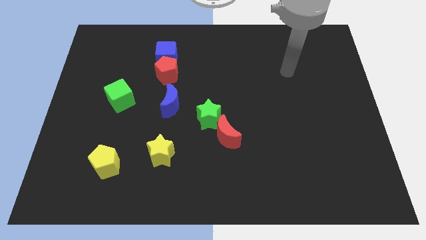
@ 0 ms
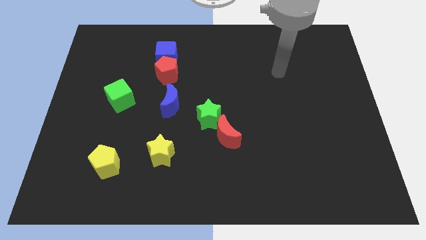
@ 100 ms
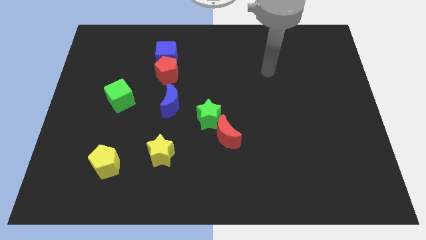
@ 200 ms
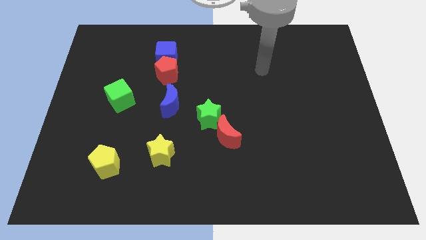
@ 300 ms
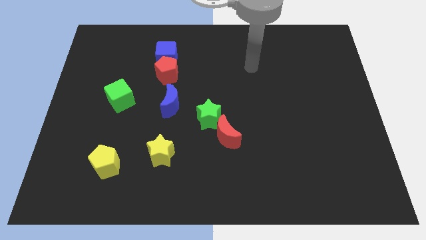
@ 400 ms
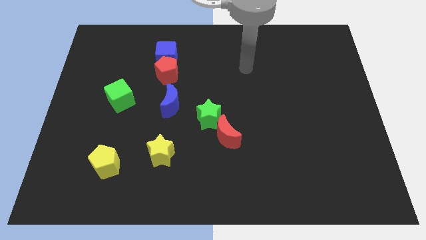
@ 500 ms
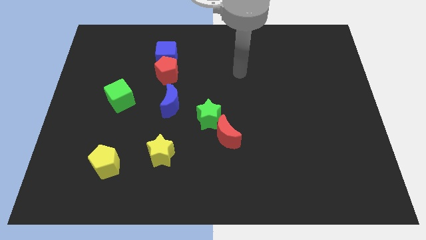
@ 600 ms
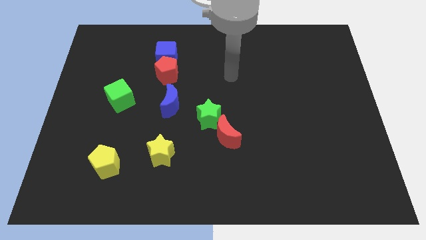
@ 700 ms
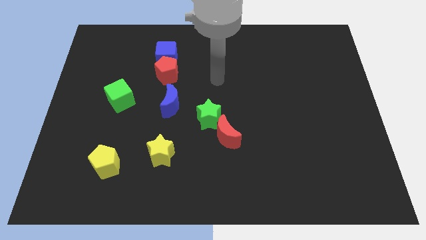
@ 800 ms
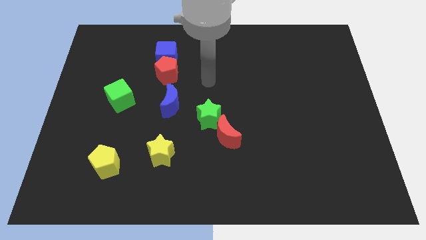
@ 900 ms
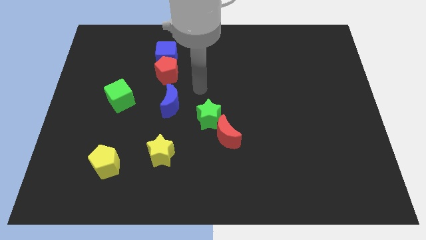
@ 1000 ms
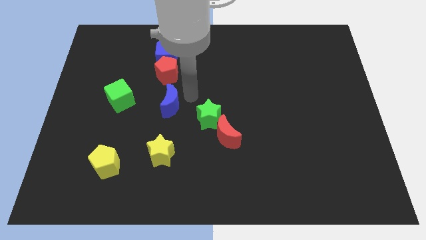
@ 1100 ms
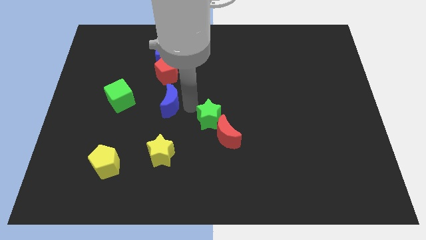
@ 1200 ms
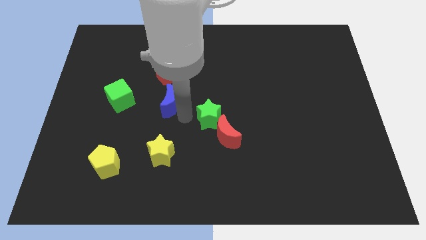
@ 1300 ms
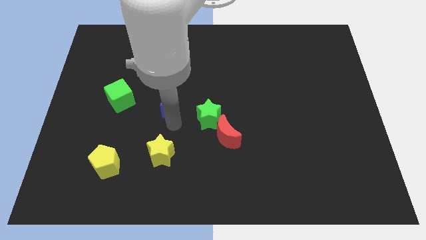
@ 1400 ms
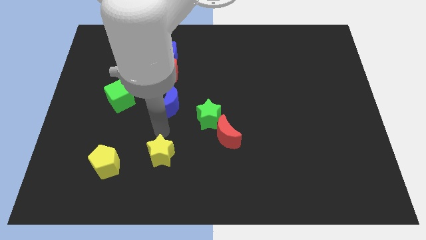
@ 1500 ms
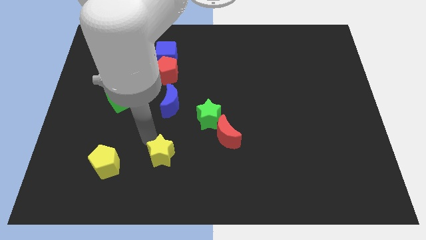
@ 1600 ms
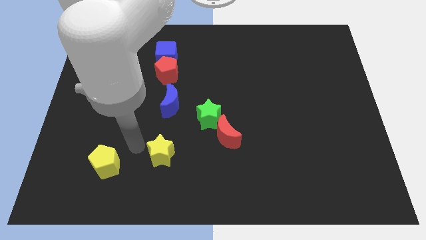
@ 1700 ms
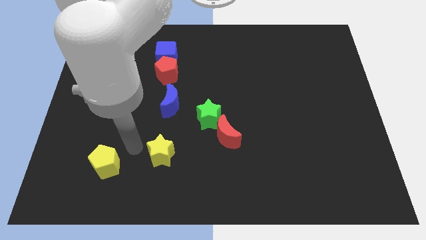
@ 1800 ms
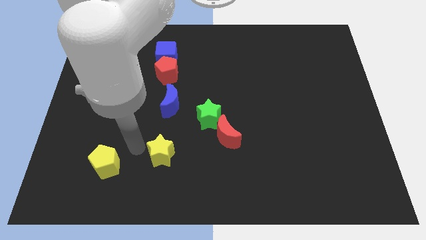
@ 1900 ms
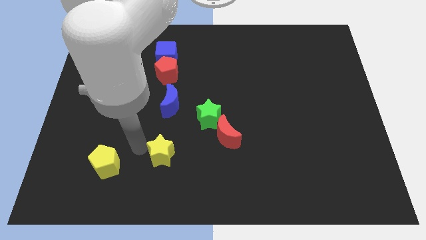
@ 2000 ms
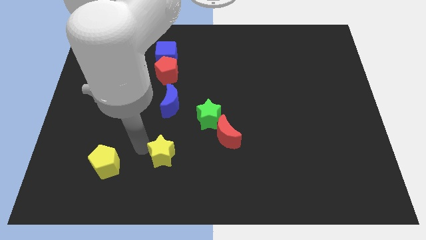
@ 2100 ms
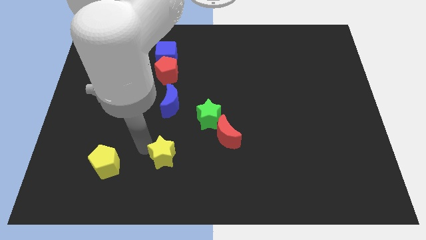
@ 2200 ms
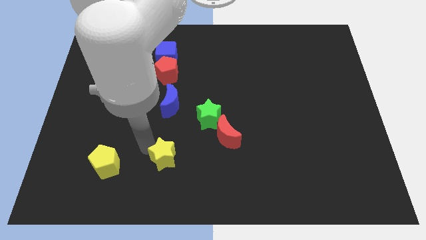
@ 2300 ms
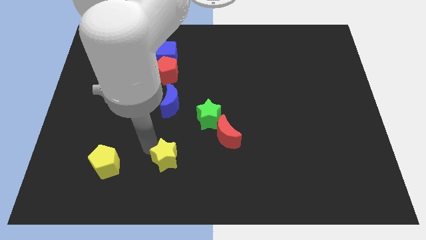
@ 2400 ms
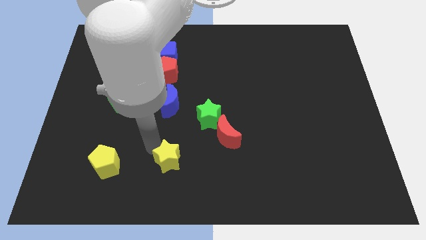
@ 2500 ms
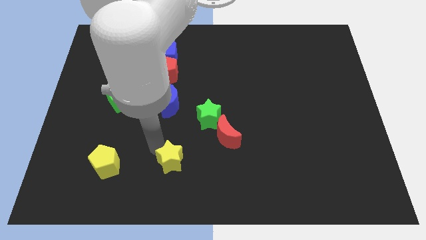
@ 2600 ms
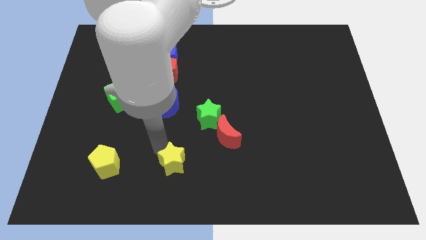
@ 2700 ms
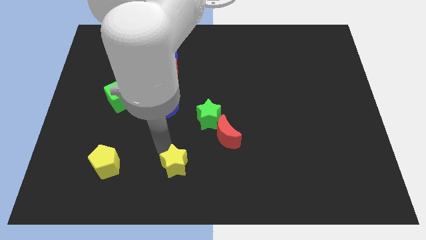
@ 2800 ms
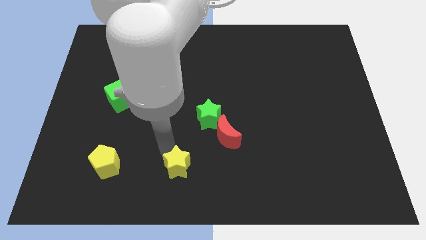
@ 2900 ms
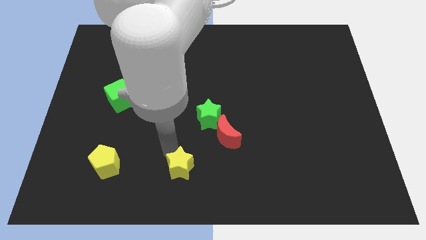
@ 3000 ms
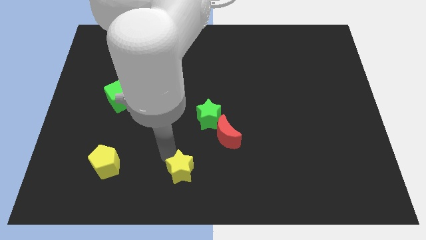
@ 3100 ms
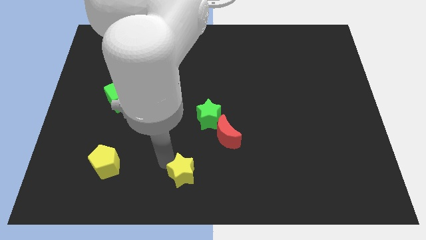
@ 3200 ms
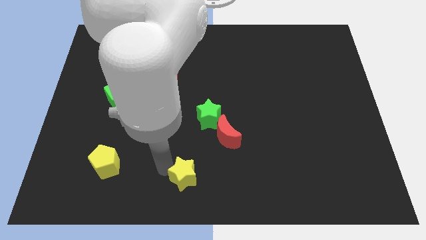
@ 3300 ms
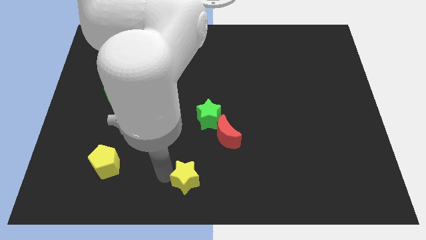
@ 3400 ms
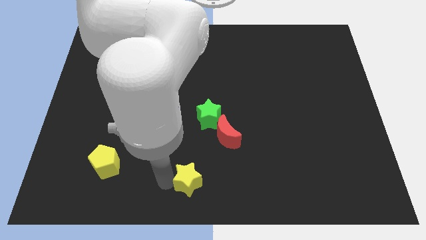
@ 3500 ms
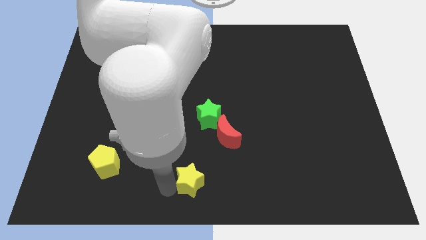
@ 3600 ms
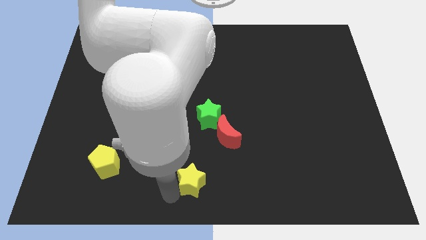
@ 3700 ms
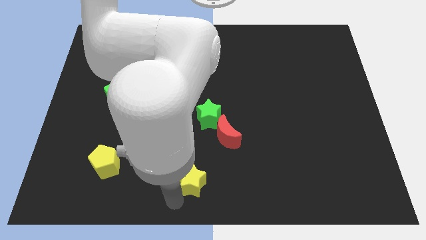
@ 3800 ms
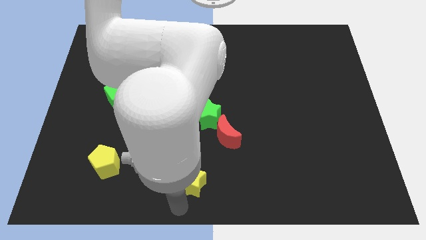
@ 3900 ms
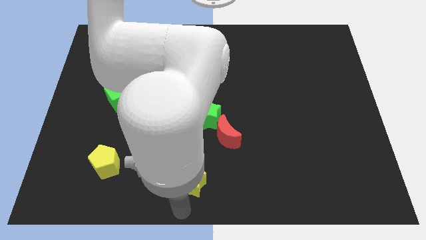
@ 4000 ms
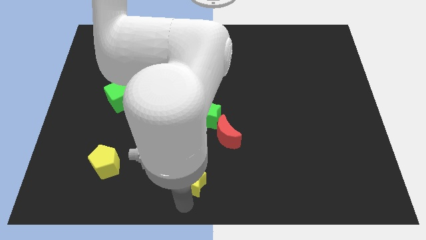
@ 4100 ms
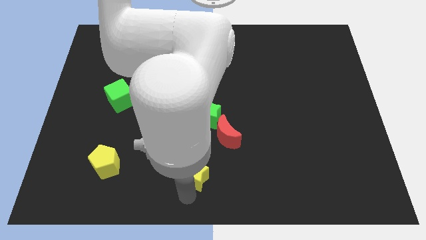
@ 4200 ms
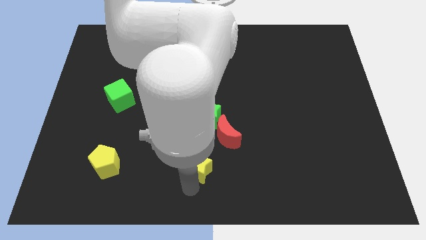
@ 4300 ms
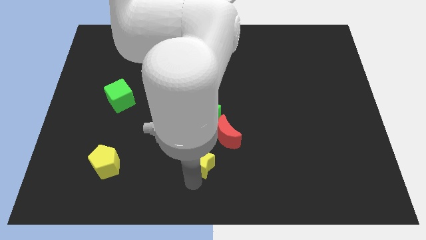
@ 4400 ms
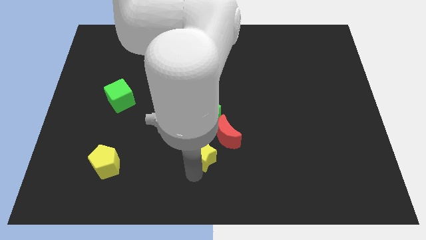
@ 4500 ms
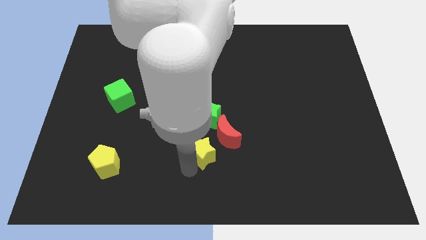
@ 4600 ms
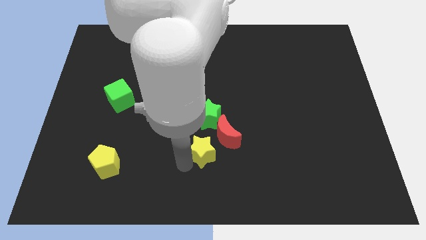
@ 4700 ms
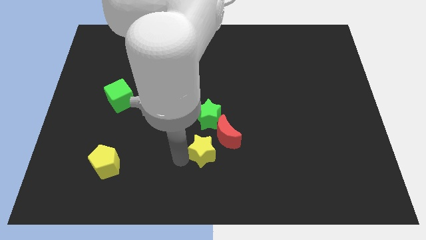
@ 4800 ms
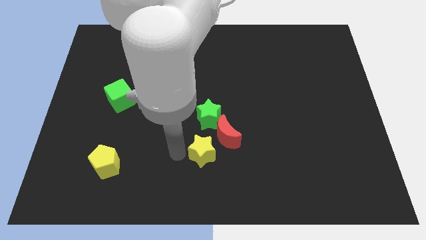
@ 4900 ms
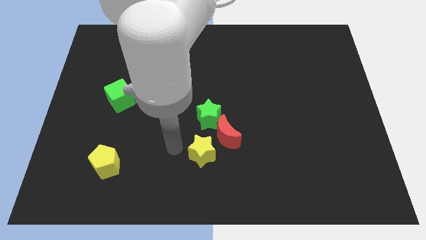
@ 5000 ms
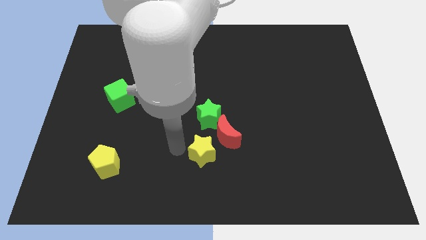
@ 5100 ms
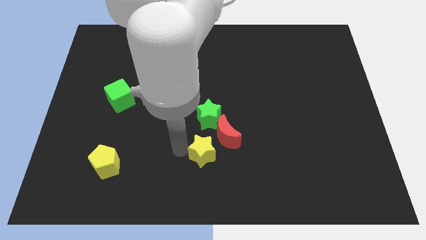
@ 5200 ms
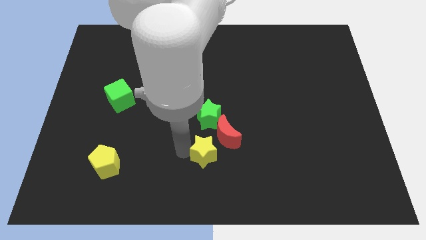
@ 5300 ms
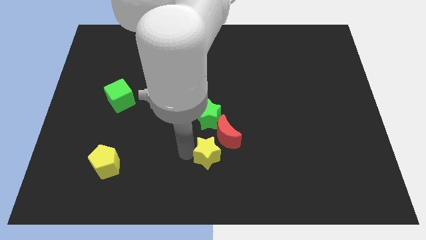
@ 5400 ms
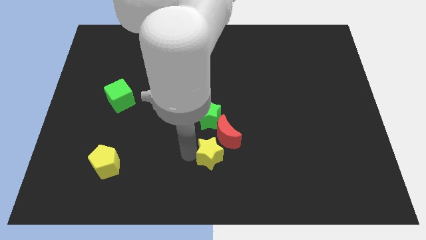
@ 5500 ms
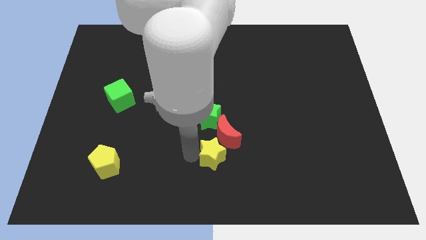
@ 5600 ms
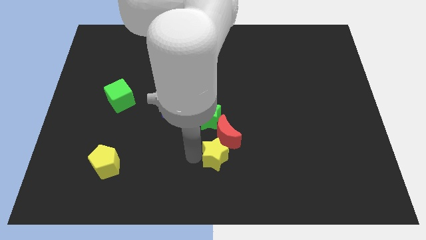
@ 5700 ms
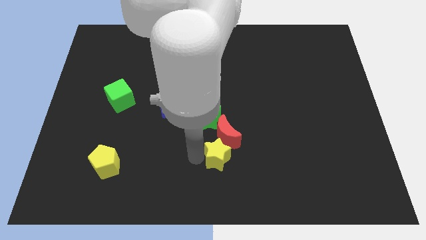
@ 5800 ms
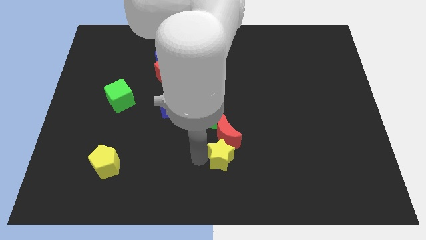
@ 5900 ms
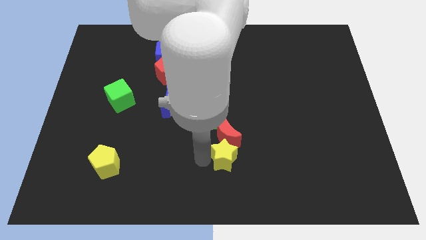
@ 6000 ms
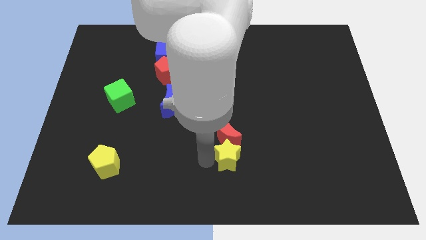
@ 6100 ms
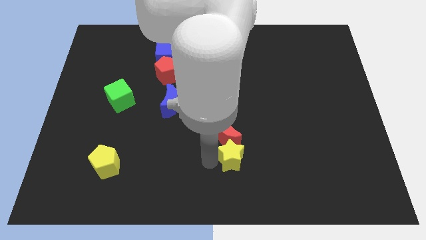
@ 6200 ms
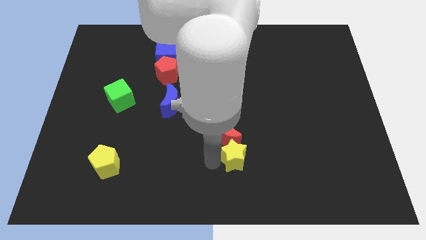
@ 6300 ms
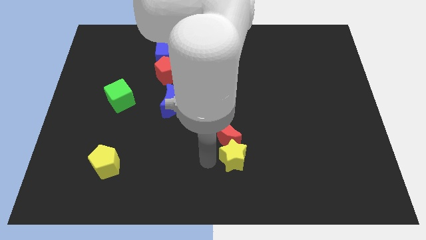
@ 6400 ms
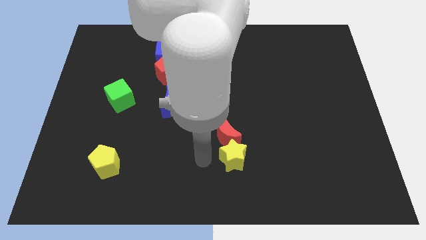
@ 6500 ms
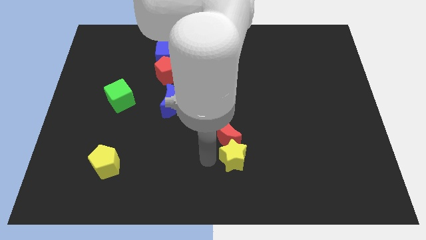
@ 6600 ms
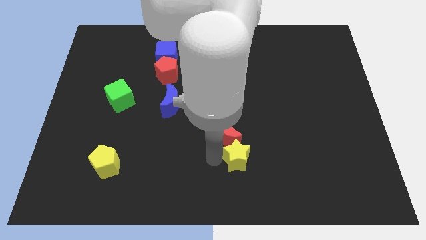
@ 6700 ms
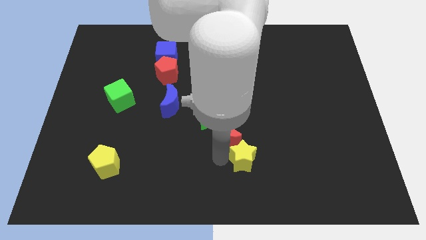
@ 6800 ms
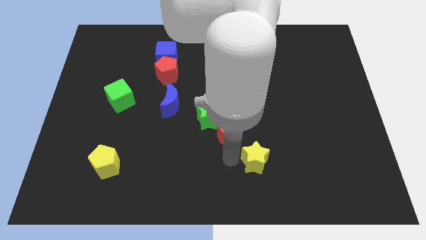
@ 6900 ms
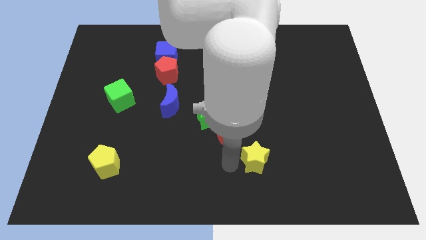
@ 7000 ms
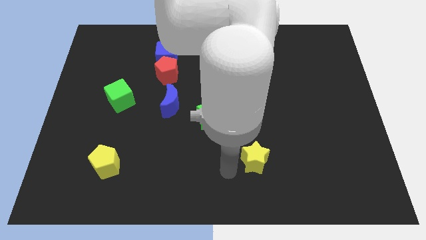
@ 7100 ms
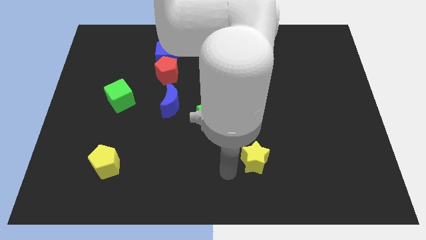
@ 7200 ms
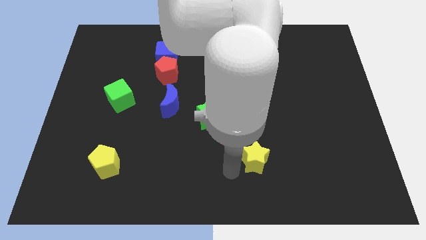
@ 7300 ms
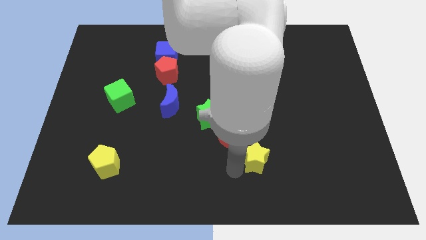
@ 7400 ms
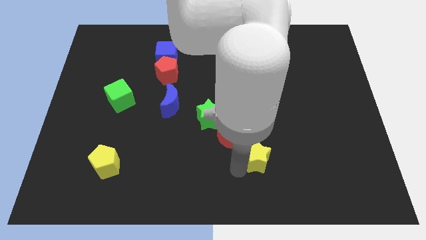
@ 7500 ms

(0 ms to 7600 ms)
push the yellow star right

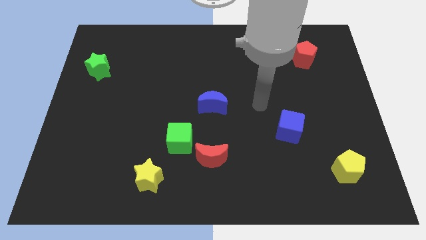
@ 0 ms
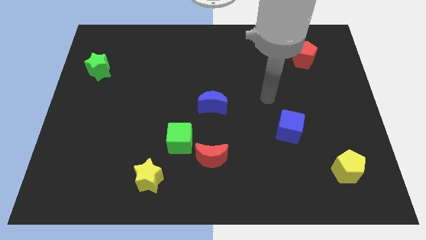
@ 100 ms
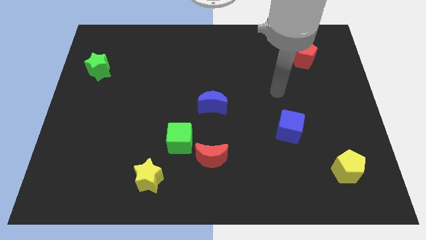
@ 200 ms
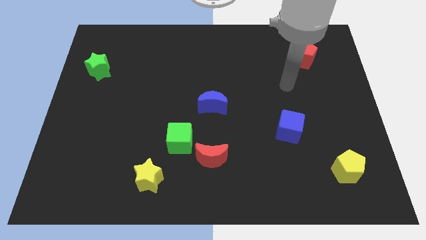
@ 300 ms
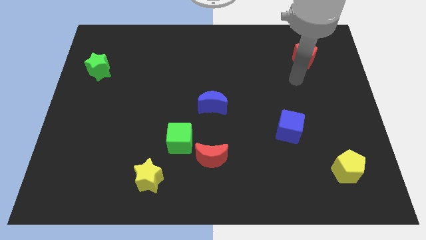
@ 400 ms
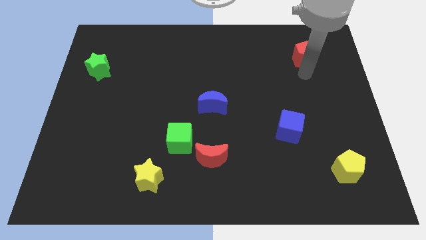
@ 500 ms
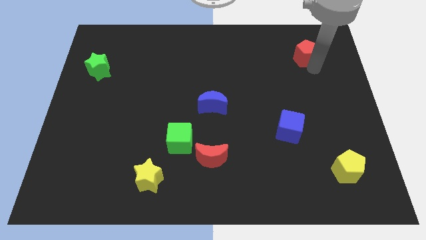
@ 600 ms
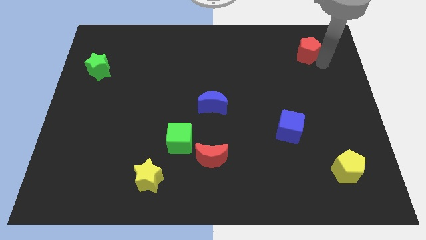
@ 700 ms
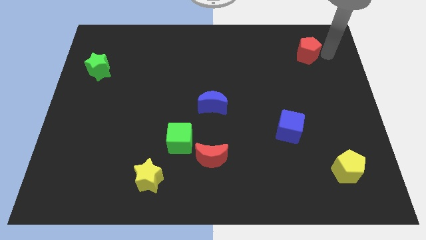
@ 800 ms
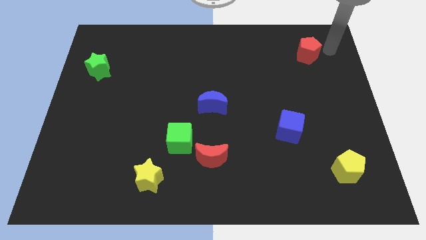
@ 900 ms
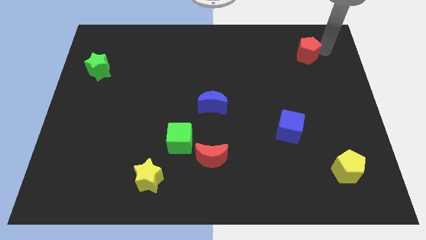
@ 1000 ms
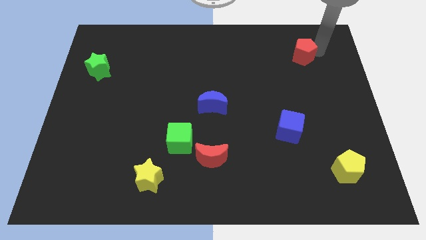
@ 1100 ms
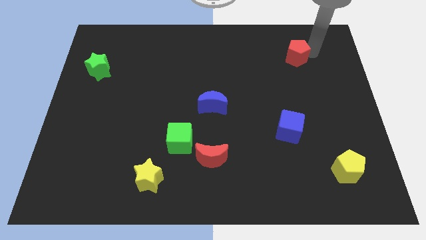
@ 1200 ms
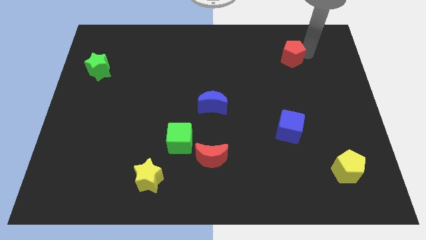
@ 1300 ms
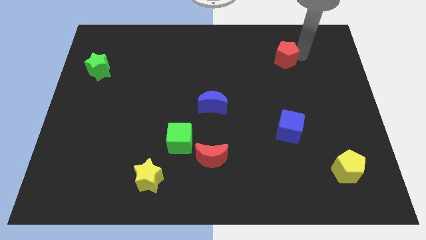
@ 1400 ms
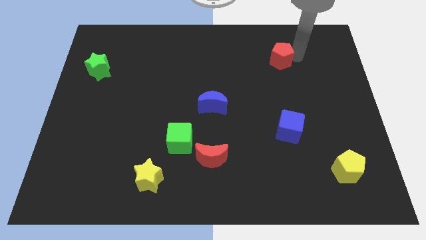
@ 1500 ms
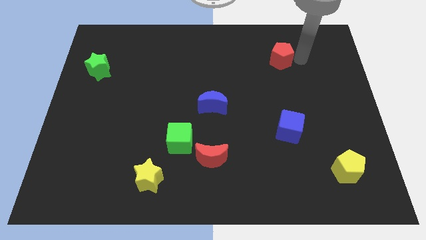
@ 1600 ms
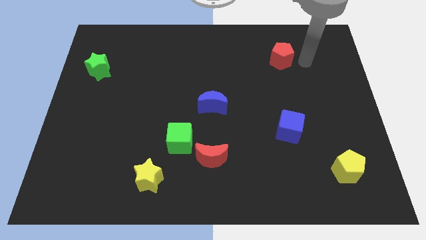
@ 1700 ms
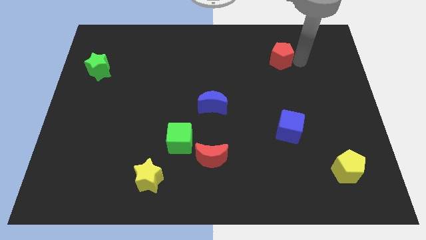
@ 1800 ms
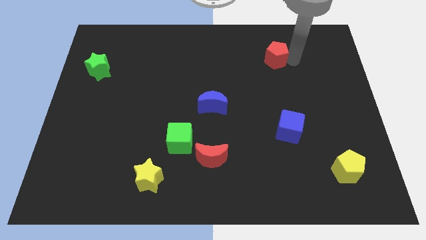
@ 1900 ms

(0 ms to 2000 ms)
slightly push the red pentagon left
